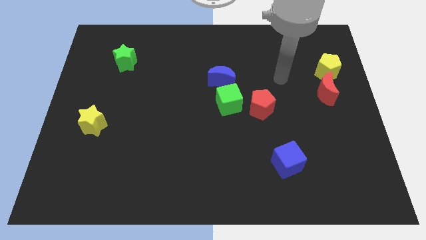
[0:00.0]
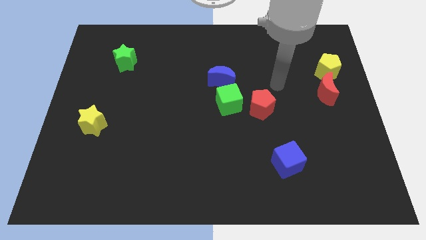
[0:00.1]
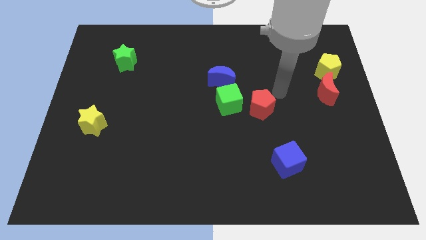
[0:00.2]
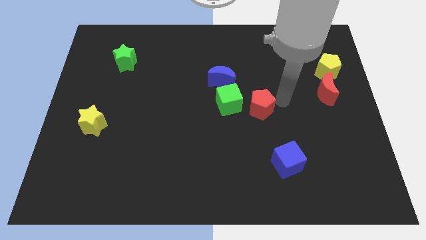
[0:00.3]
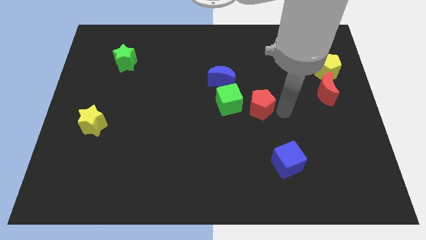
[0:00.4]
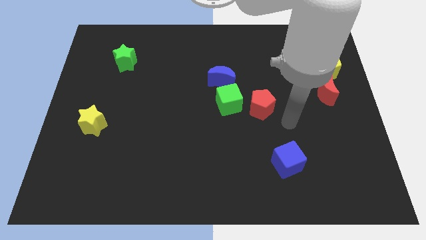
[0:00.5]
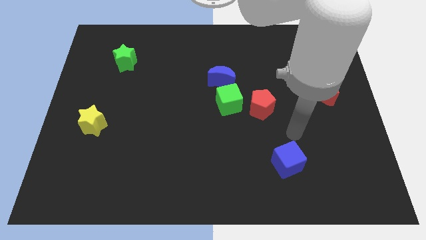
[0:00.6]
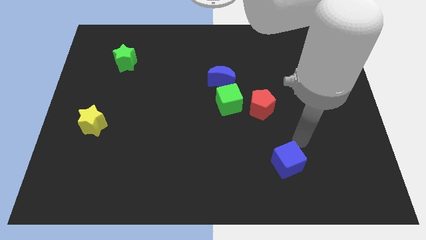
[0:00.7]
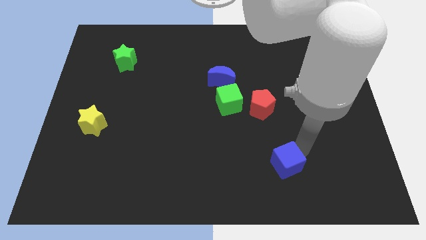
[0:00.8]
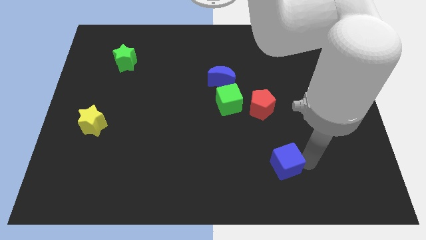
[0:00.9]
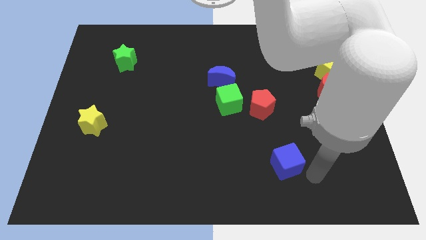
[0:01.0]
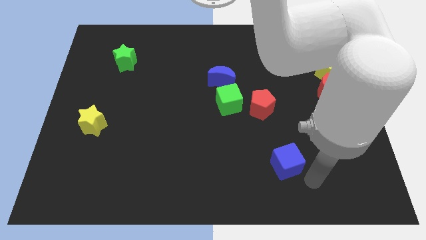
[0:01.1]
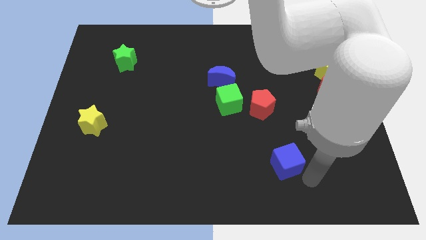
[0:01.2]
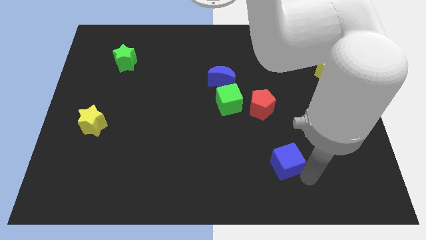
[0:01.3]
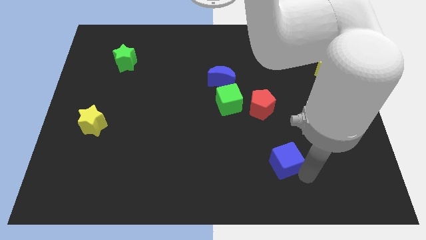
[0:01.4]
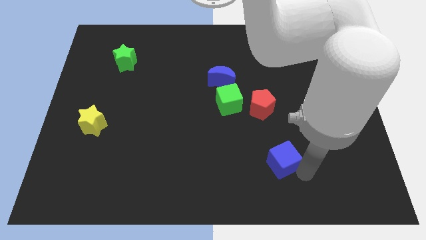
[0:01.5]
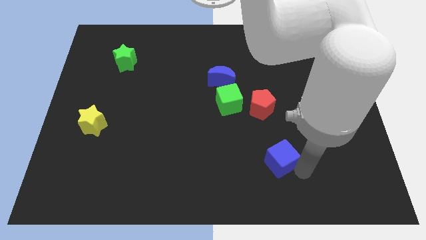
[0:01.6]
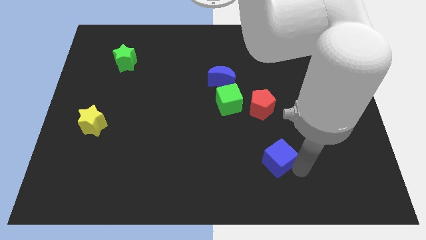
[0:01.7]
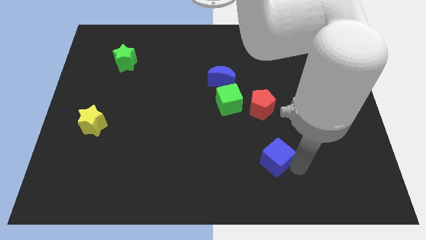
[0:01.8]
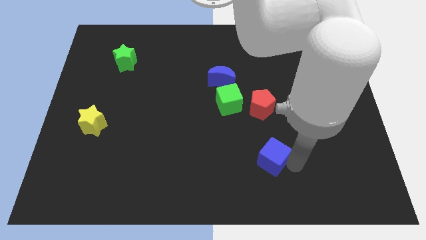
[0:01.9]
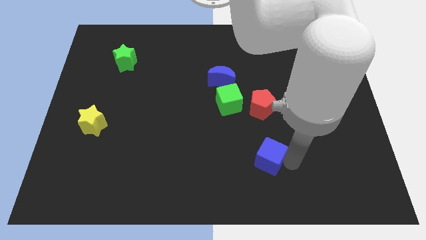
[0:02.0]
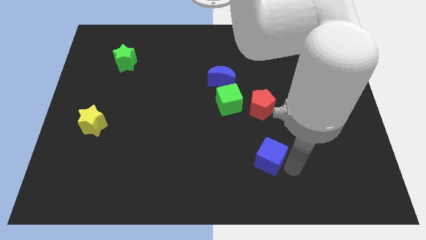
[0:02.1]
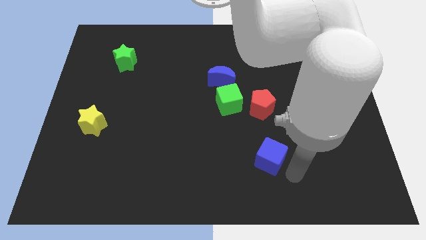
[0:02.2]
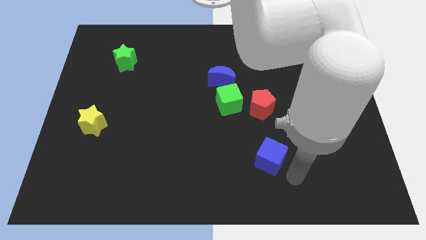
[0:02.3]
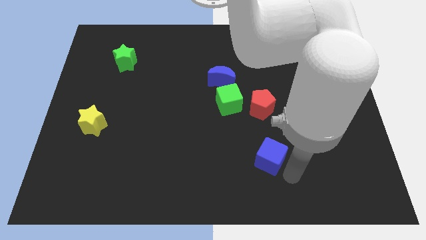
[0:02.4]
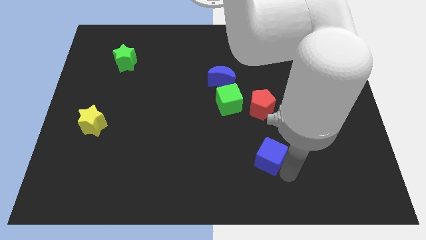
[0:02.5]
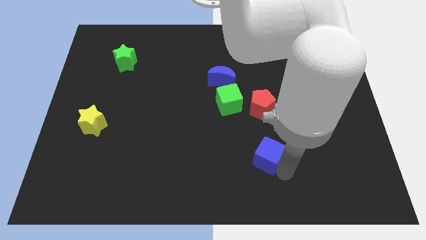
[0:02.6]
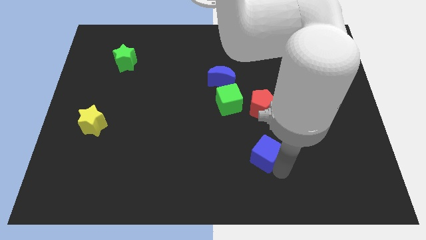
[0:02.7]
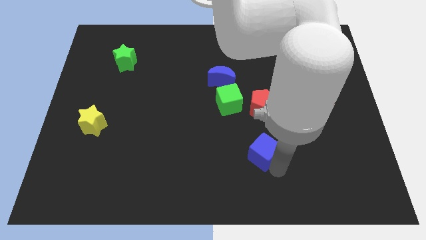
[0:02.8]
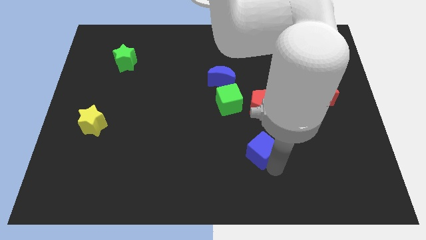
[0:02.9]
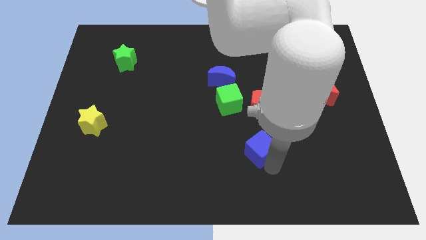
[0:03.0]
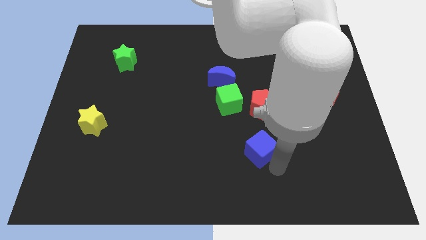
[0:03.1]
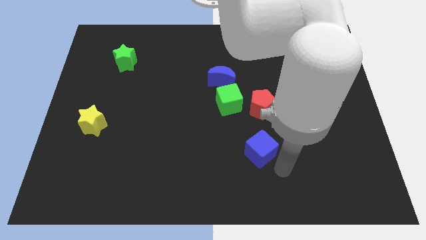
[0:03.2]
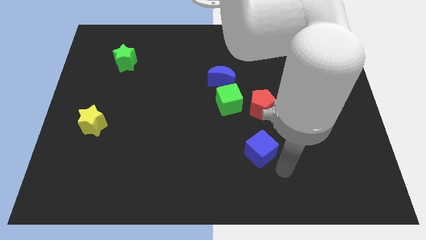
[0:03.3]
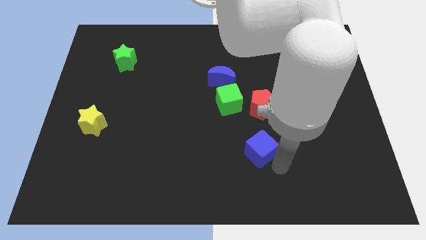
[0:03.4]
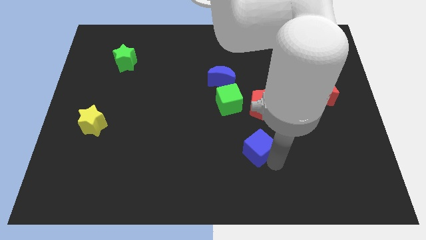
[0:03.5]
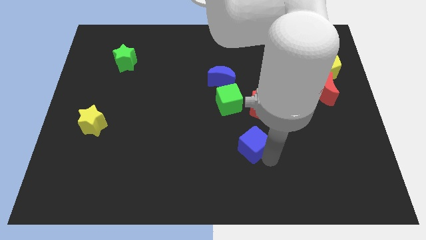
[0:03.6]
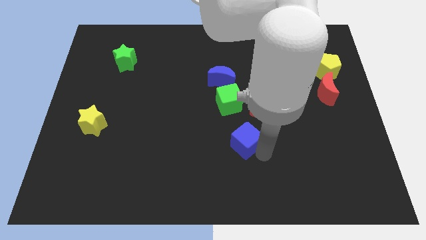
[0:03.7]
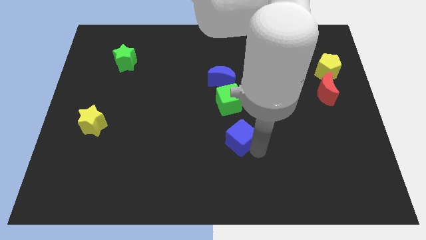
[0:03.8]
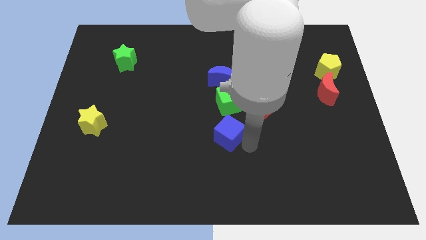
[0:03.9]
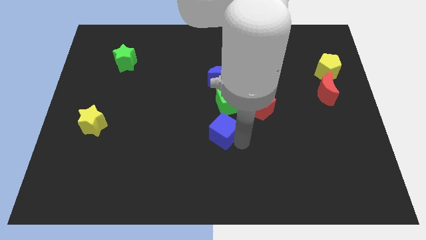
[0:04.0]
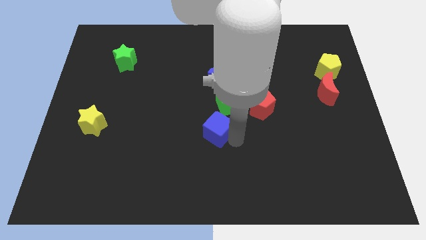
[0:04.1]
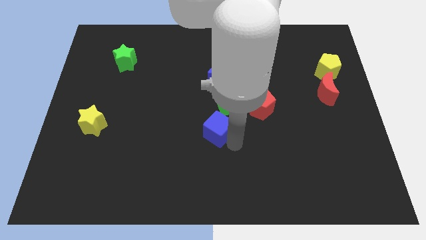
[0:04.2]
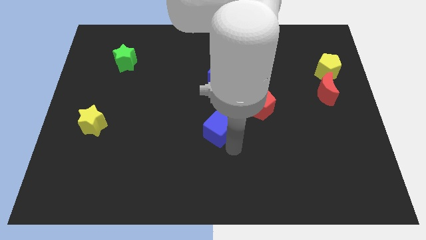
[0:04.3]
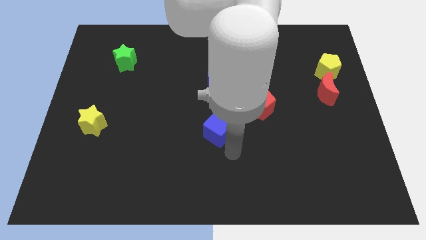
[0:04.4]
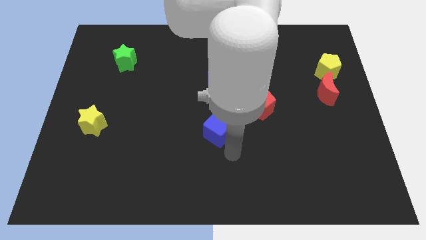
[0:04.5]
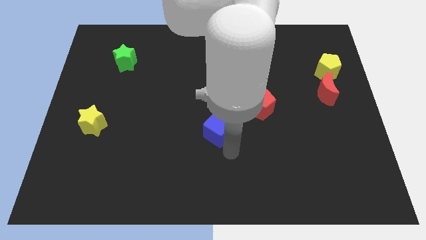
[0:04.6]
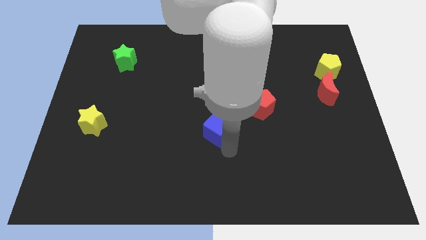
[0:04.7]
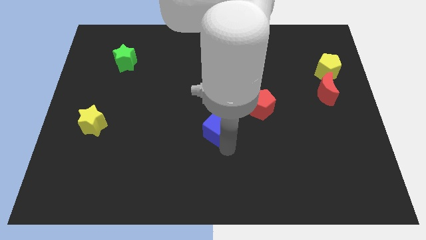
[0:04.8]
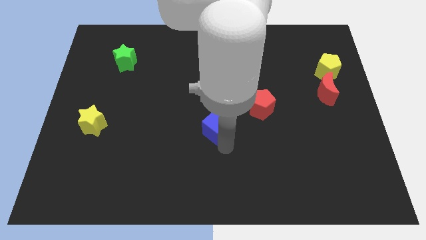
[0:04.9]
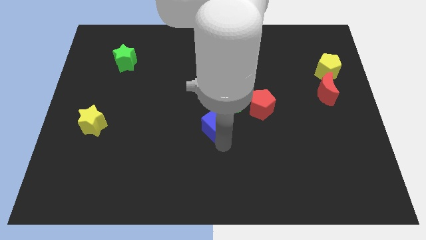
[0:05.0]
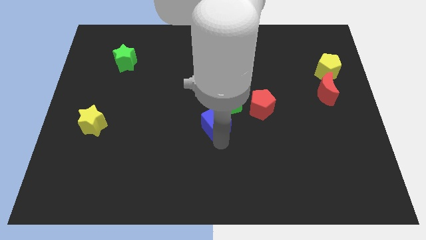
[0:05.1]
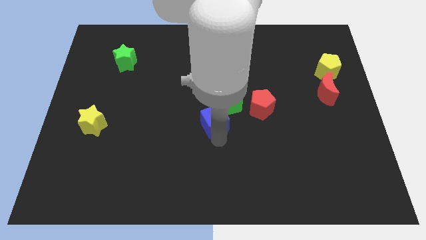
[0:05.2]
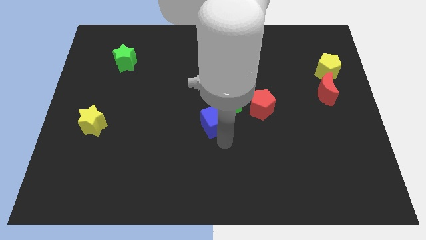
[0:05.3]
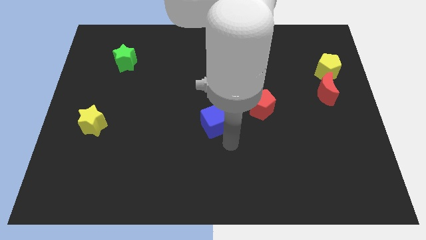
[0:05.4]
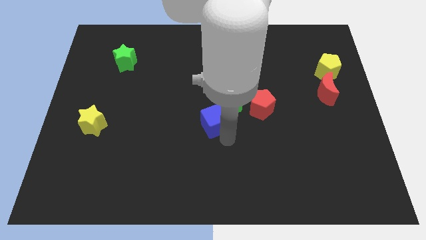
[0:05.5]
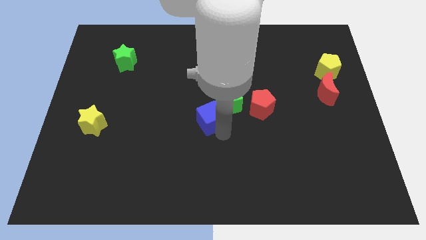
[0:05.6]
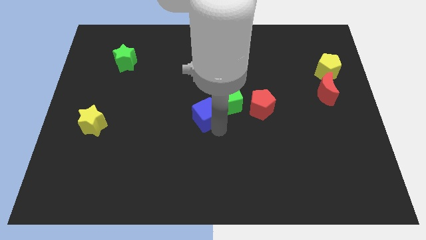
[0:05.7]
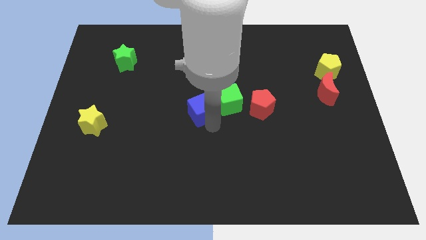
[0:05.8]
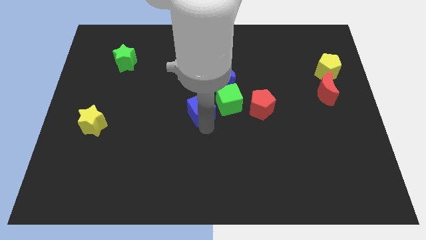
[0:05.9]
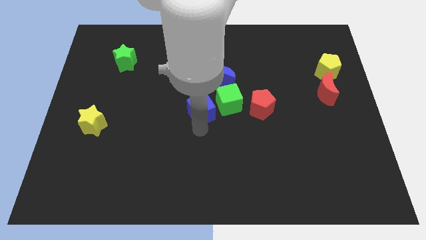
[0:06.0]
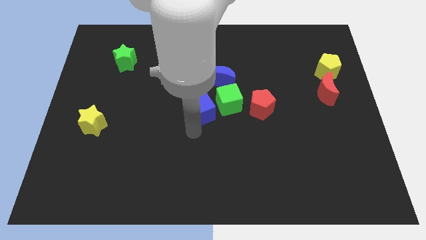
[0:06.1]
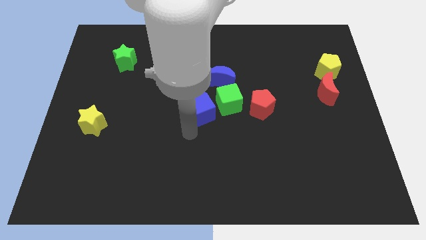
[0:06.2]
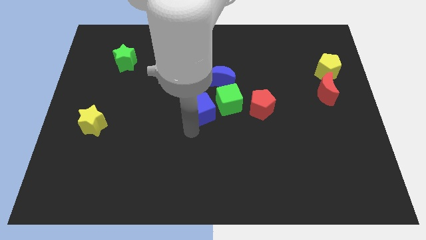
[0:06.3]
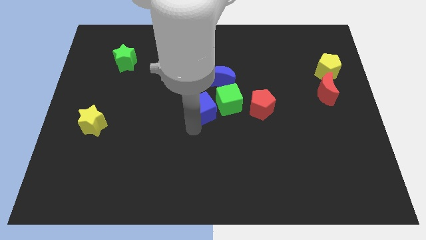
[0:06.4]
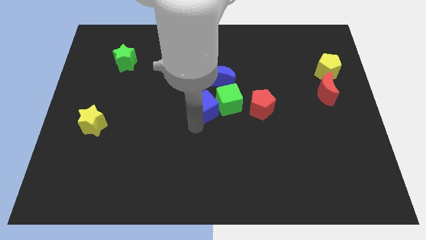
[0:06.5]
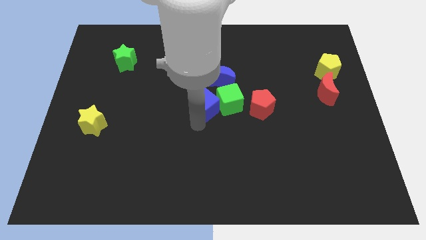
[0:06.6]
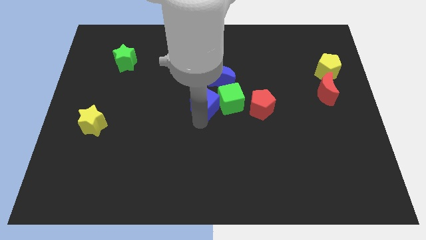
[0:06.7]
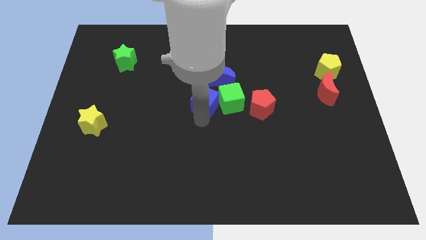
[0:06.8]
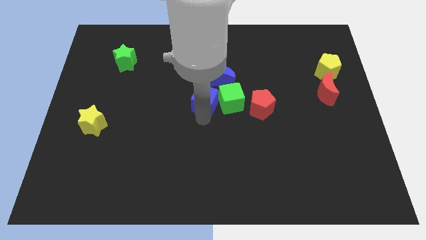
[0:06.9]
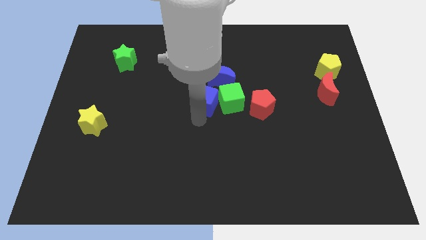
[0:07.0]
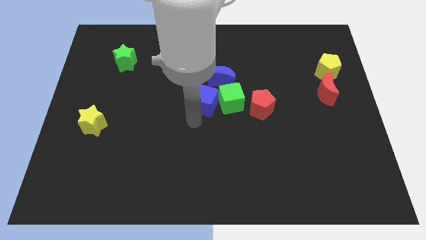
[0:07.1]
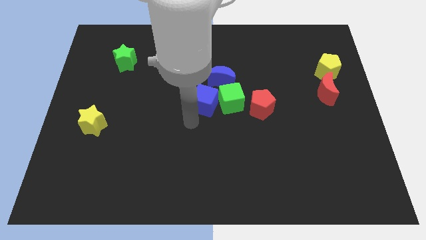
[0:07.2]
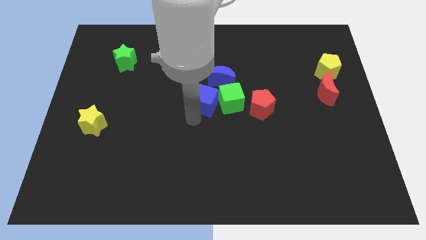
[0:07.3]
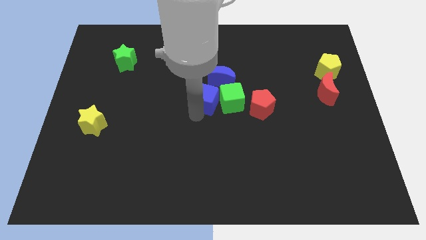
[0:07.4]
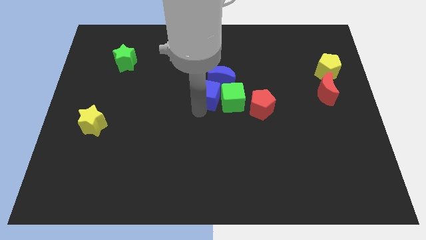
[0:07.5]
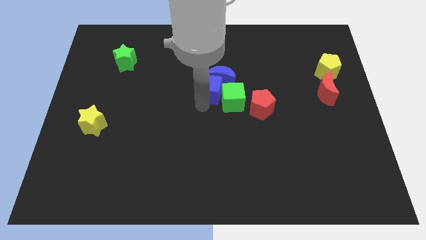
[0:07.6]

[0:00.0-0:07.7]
put the blue cube next to the blue moon
